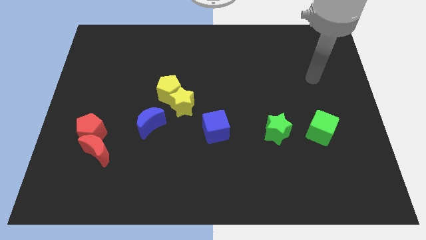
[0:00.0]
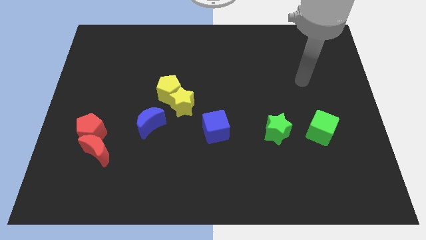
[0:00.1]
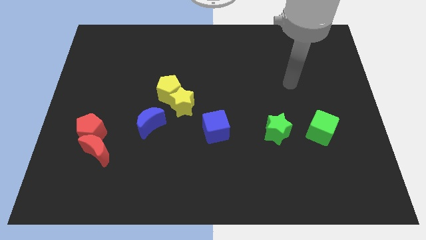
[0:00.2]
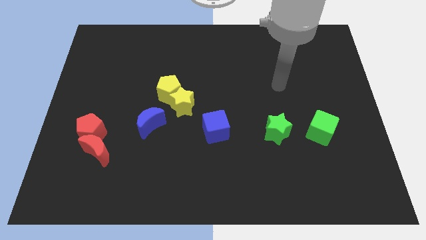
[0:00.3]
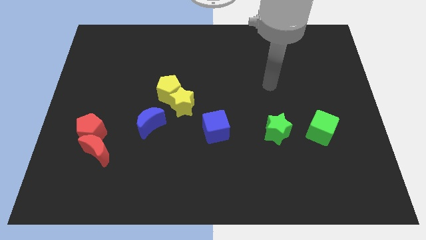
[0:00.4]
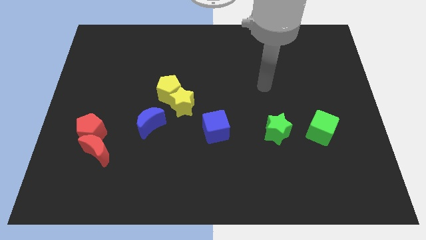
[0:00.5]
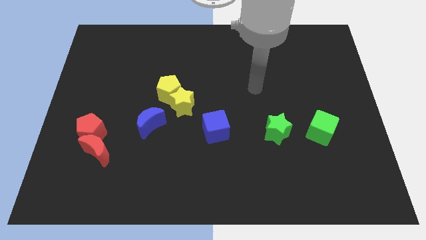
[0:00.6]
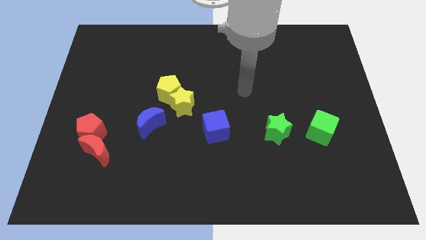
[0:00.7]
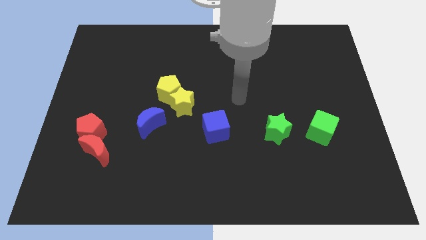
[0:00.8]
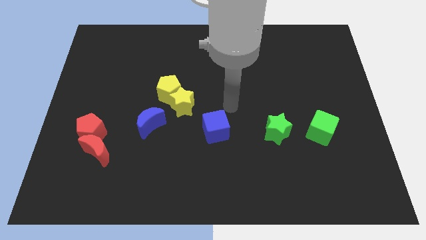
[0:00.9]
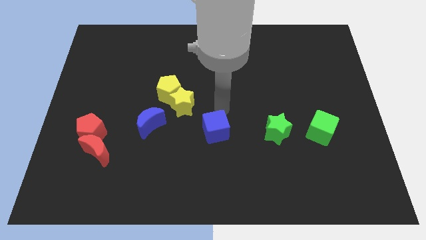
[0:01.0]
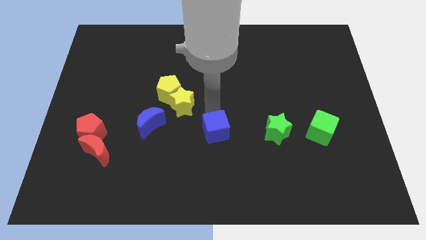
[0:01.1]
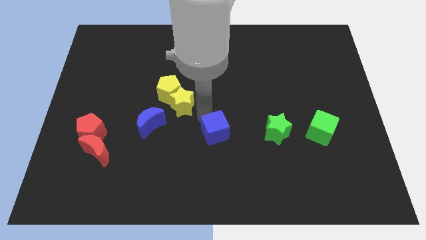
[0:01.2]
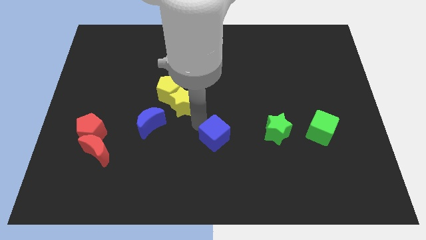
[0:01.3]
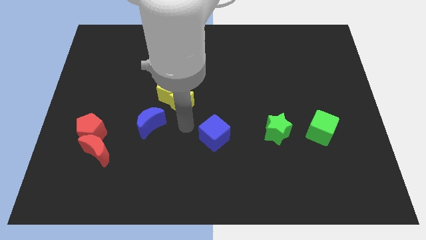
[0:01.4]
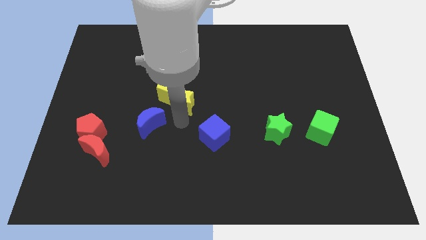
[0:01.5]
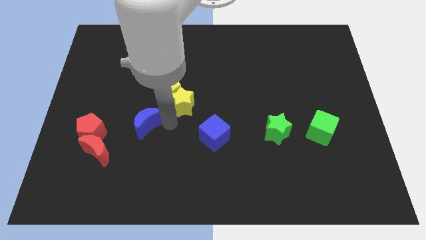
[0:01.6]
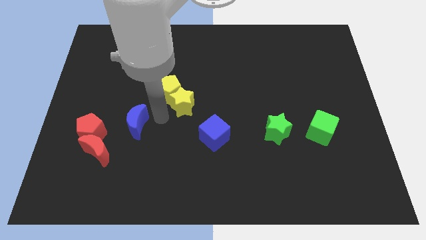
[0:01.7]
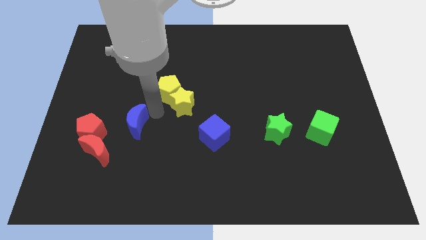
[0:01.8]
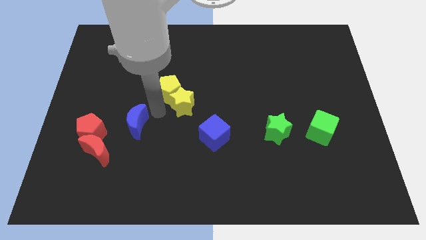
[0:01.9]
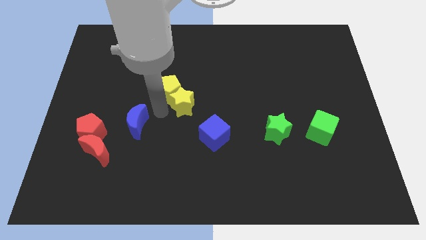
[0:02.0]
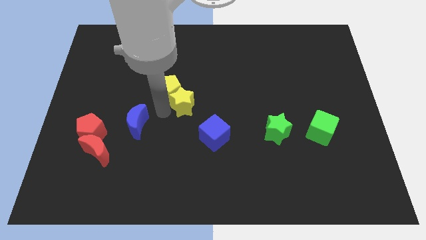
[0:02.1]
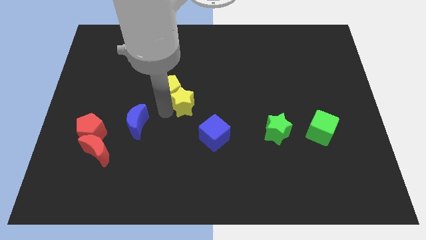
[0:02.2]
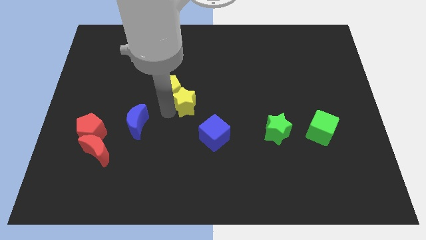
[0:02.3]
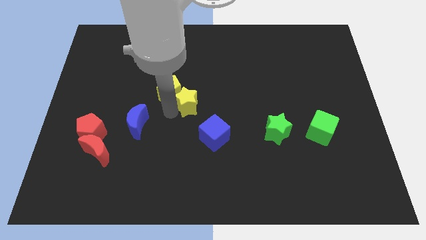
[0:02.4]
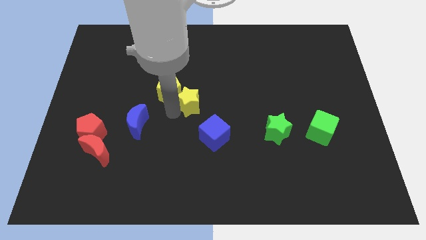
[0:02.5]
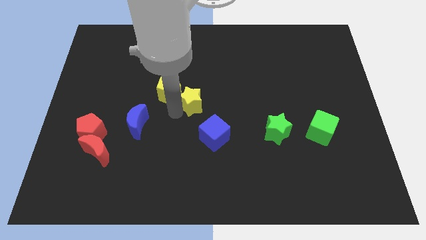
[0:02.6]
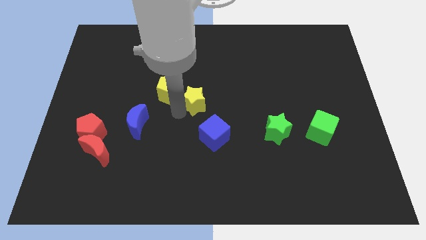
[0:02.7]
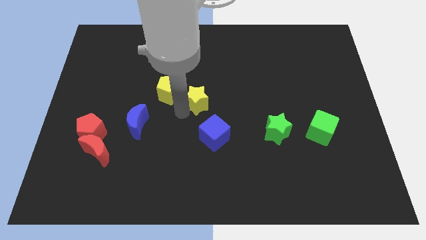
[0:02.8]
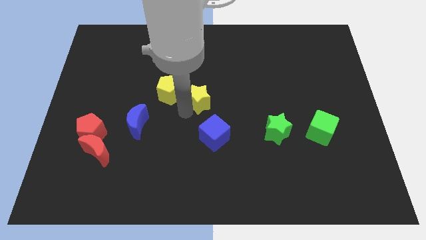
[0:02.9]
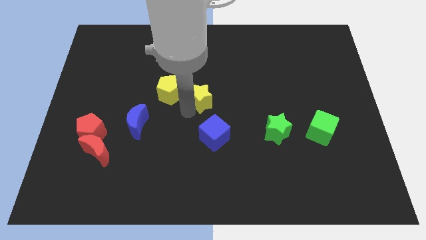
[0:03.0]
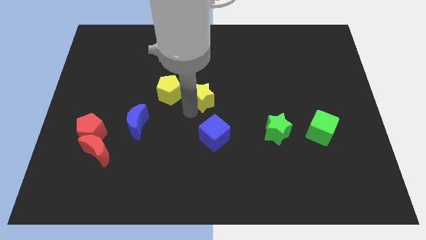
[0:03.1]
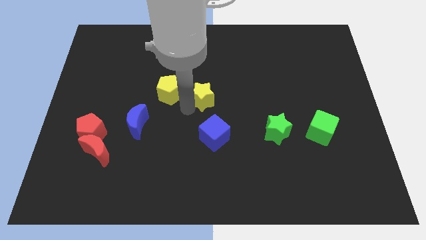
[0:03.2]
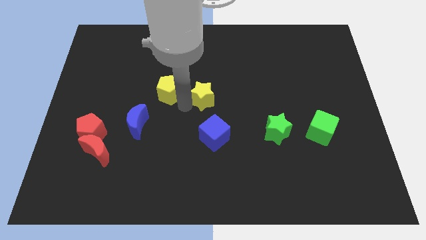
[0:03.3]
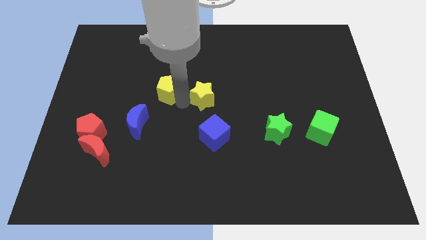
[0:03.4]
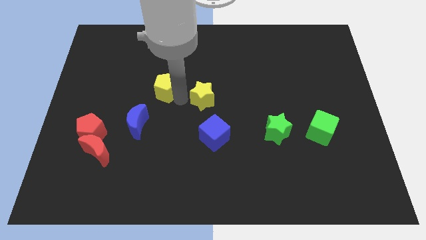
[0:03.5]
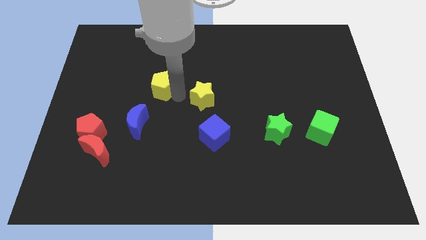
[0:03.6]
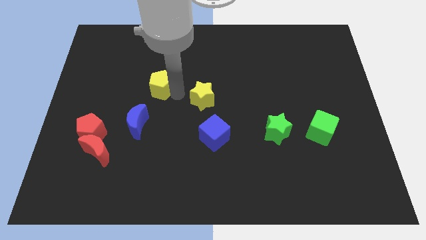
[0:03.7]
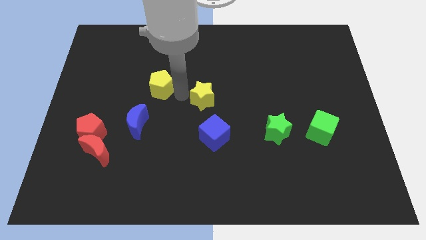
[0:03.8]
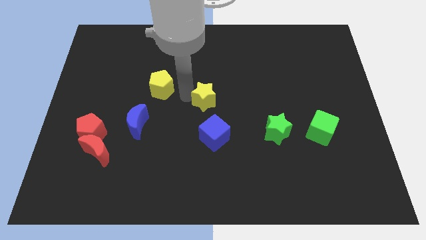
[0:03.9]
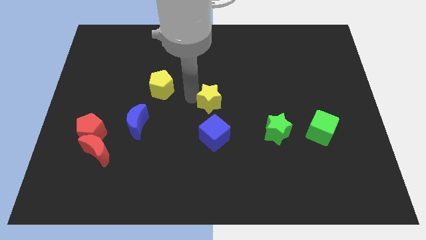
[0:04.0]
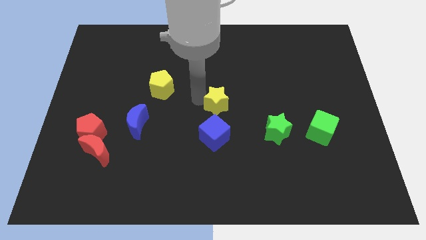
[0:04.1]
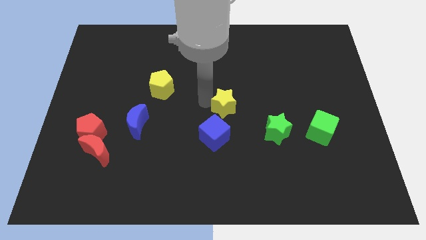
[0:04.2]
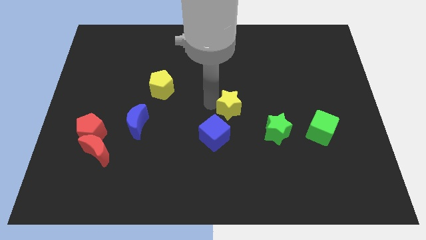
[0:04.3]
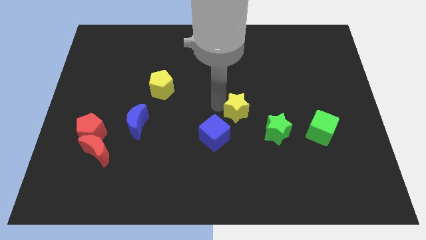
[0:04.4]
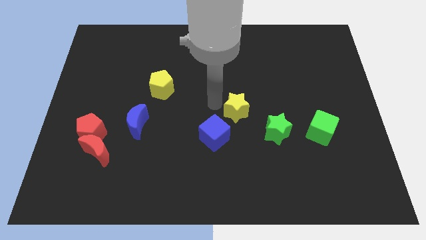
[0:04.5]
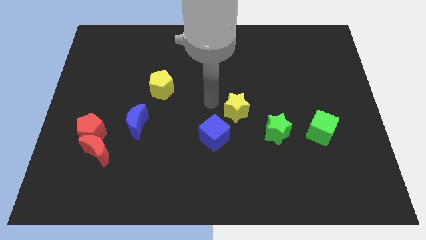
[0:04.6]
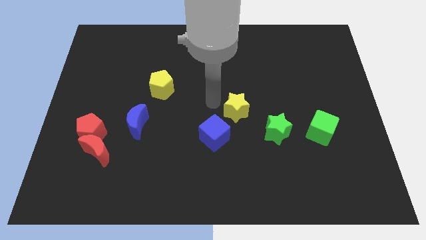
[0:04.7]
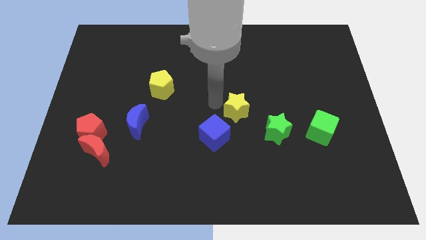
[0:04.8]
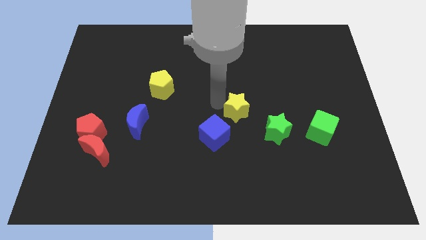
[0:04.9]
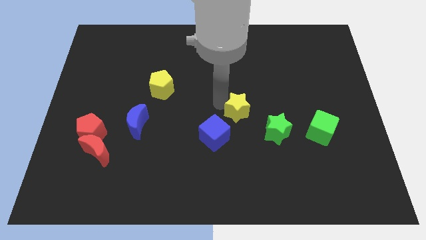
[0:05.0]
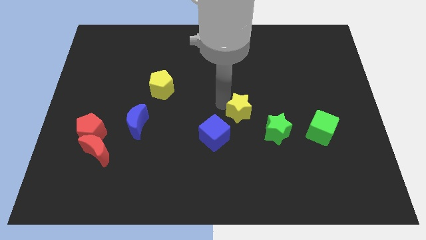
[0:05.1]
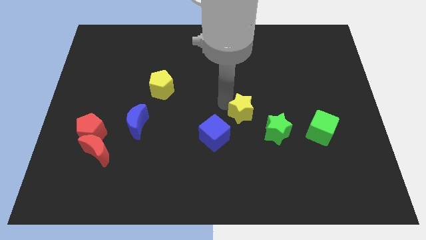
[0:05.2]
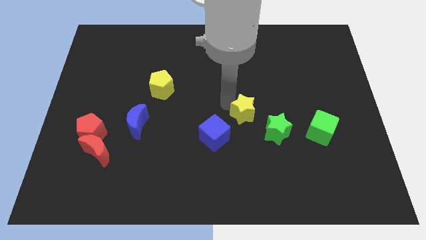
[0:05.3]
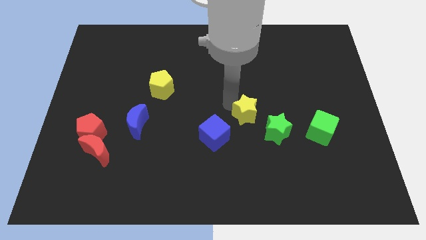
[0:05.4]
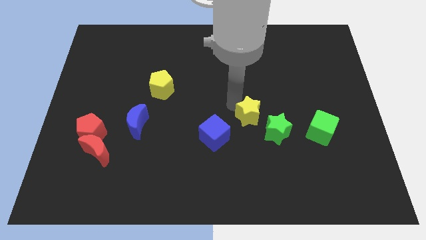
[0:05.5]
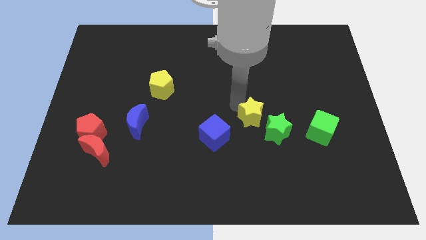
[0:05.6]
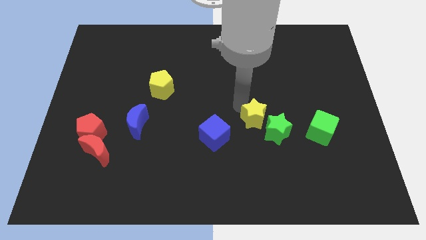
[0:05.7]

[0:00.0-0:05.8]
move the yellow star close to the green star

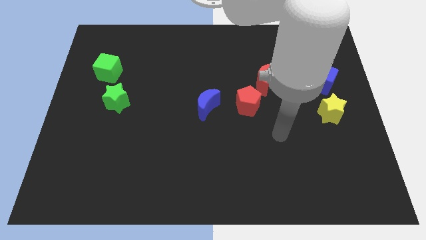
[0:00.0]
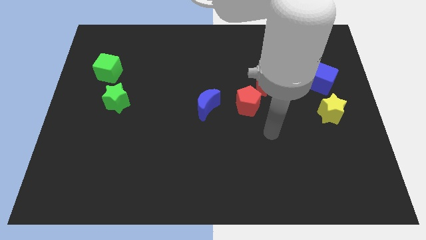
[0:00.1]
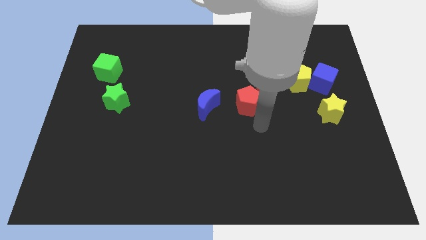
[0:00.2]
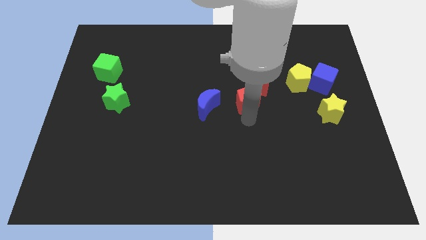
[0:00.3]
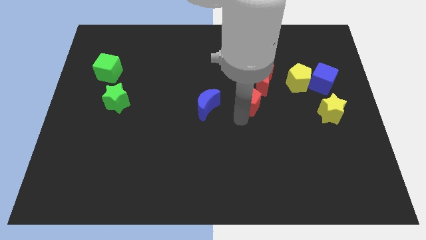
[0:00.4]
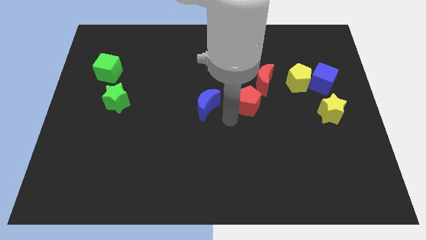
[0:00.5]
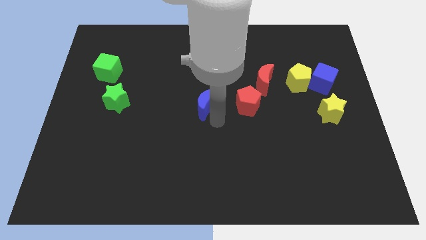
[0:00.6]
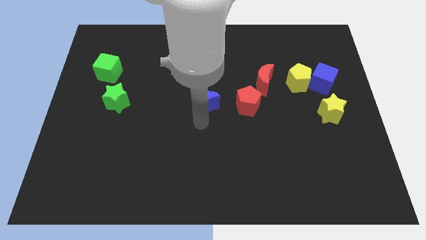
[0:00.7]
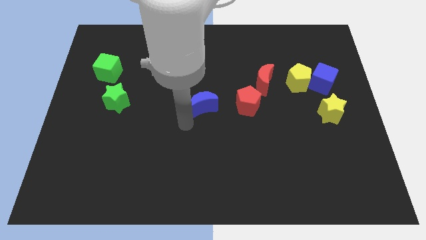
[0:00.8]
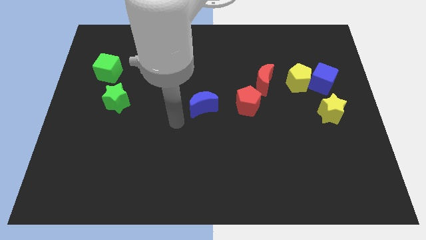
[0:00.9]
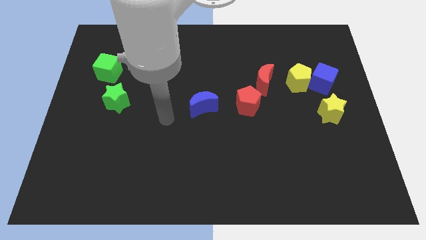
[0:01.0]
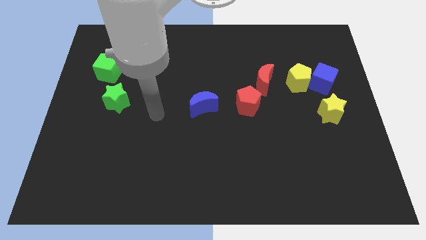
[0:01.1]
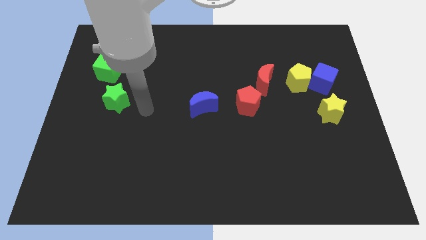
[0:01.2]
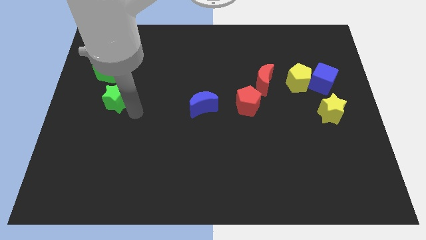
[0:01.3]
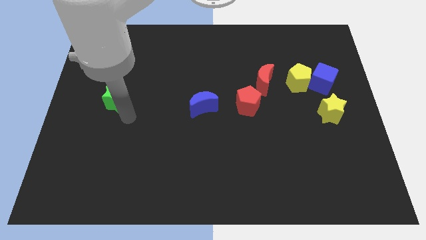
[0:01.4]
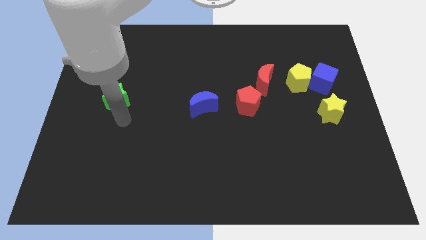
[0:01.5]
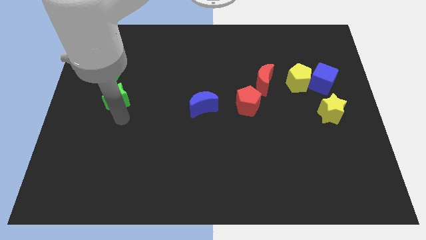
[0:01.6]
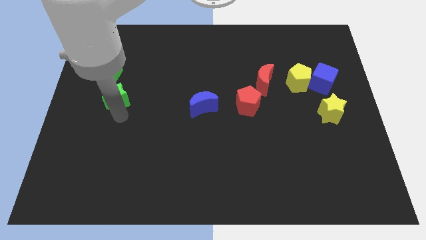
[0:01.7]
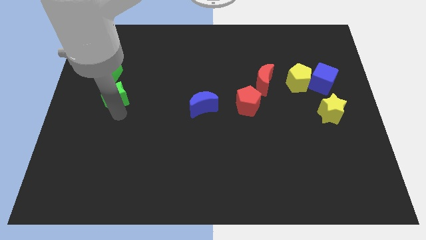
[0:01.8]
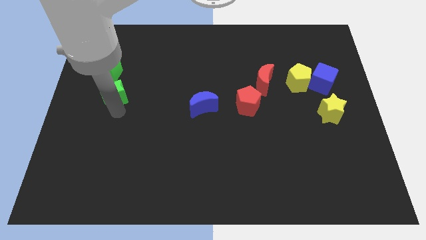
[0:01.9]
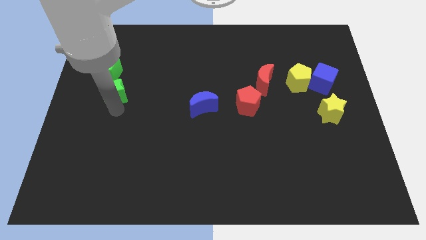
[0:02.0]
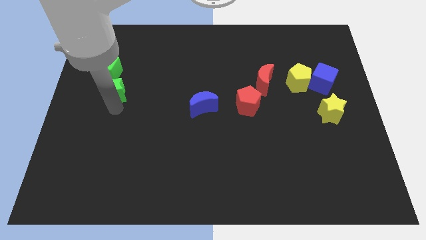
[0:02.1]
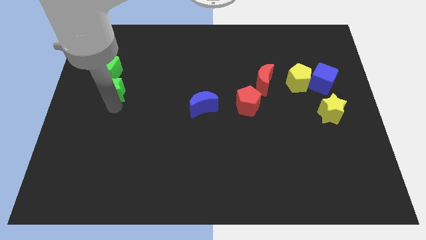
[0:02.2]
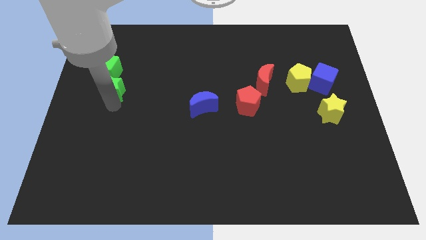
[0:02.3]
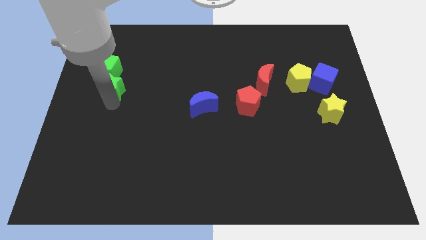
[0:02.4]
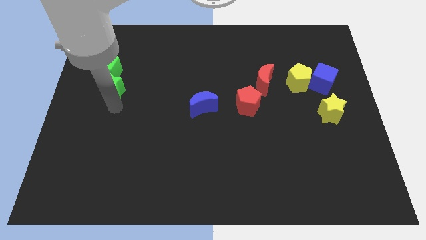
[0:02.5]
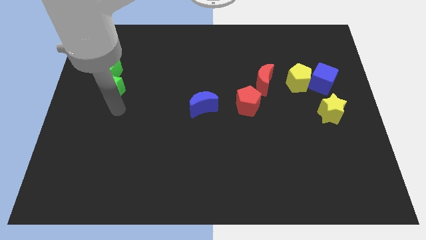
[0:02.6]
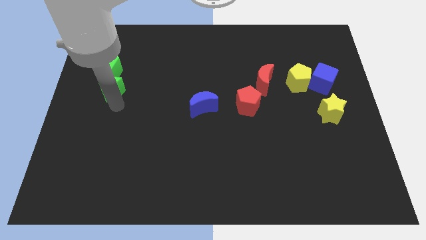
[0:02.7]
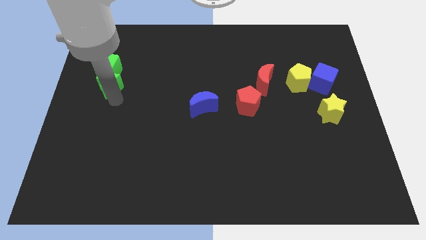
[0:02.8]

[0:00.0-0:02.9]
put the green star towards the green cube
